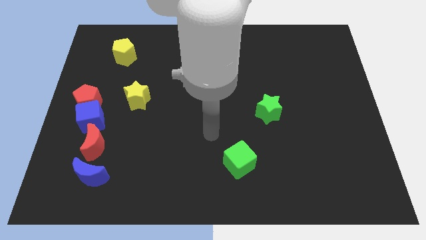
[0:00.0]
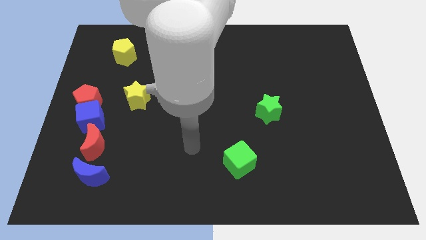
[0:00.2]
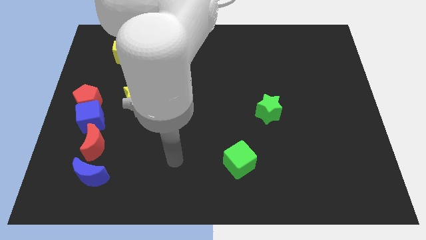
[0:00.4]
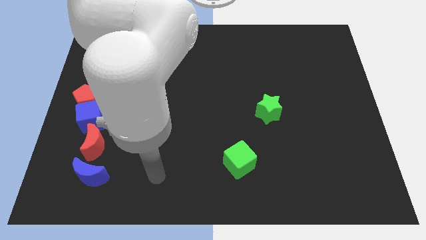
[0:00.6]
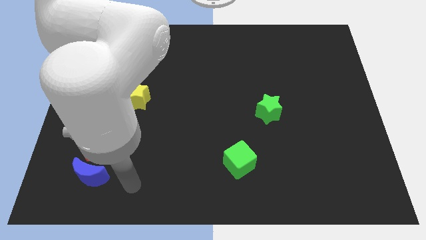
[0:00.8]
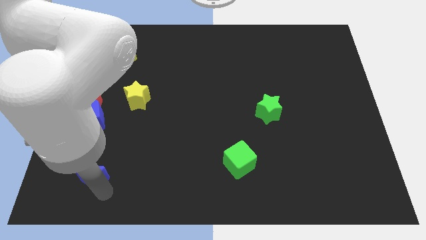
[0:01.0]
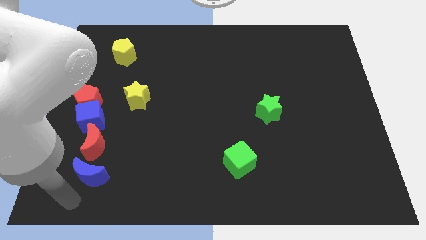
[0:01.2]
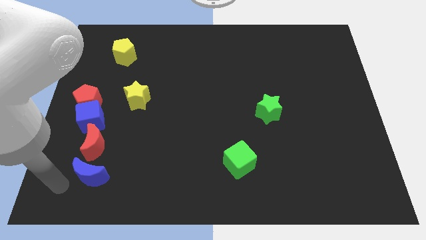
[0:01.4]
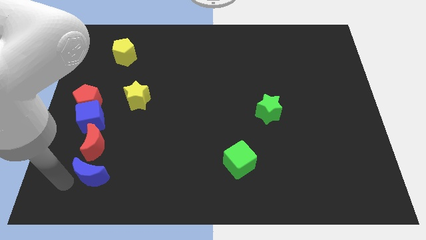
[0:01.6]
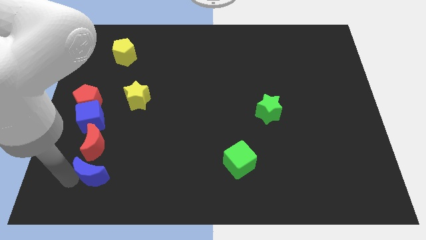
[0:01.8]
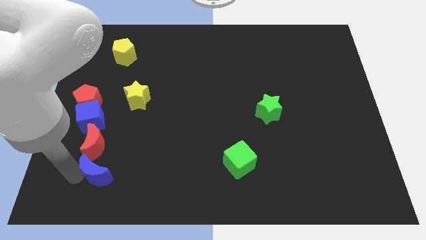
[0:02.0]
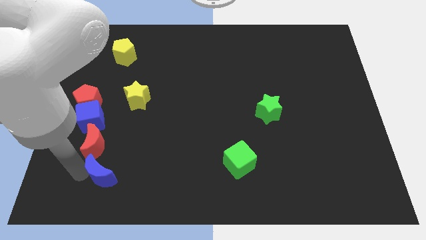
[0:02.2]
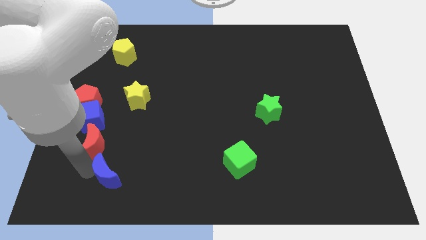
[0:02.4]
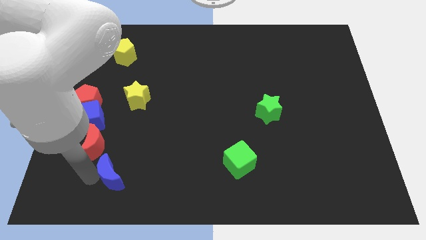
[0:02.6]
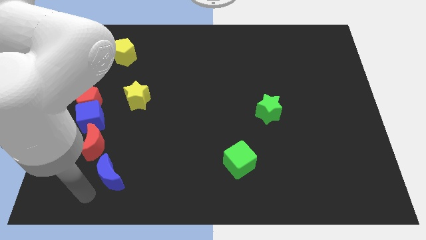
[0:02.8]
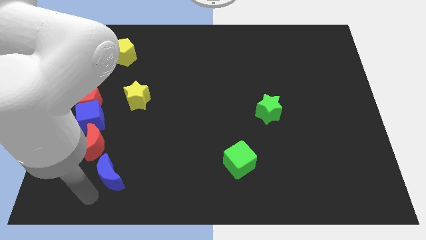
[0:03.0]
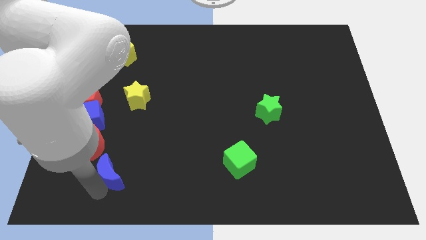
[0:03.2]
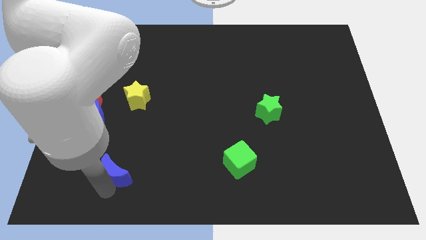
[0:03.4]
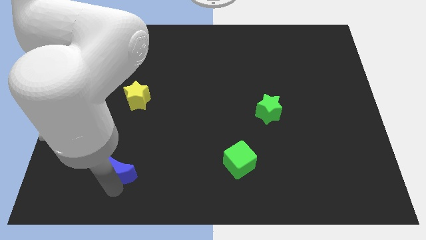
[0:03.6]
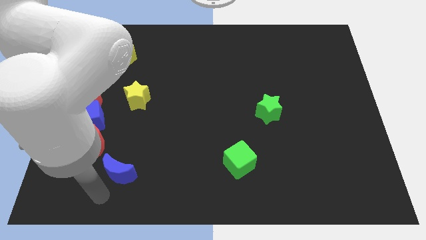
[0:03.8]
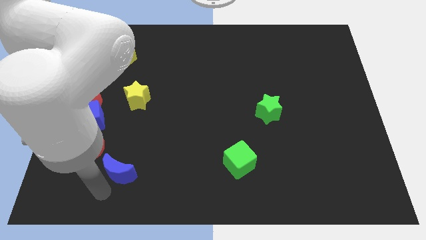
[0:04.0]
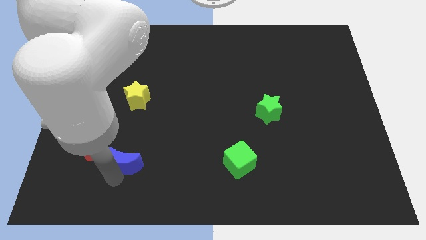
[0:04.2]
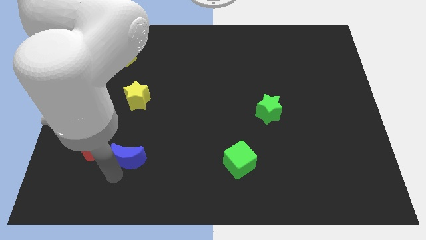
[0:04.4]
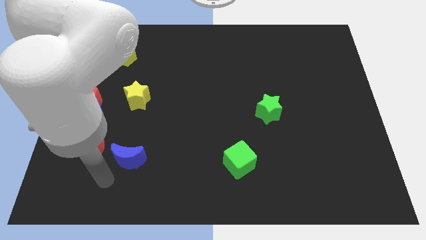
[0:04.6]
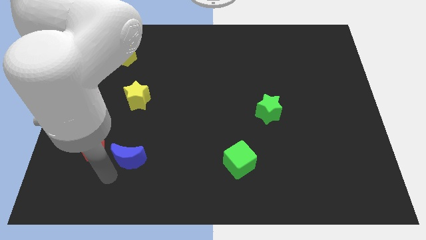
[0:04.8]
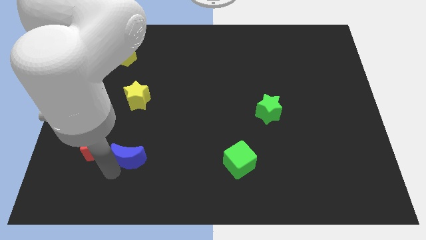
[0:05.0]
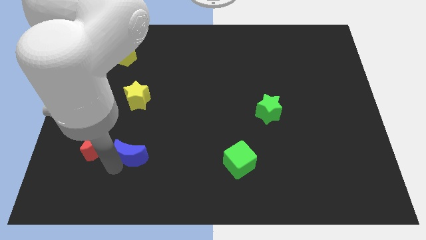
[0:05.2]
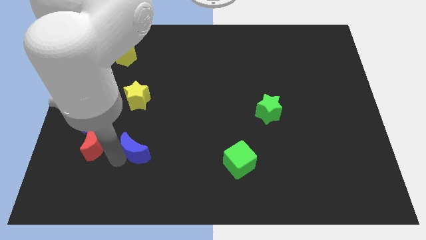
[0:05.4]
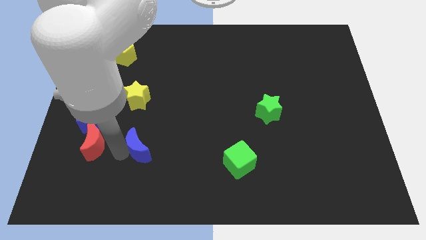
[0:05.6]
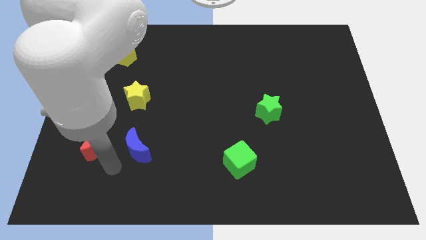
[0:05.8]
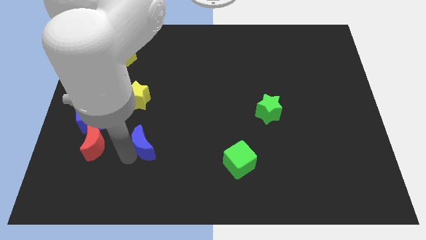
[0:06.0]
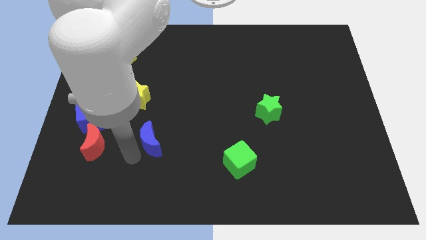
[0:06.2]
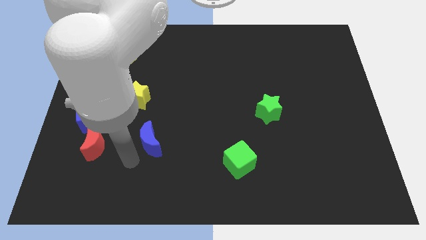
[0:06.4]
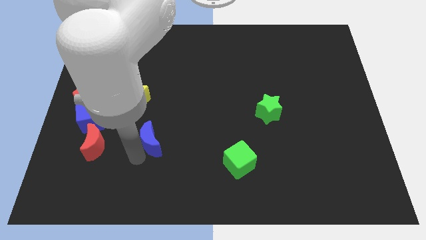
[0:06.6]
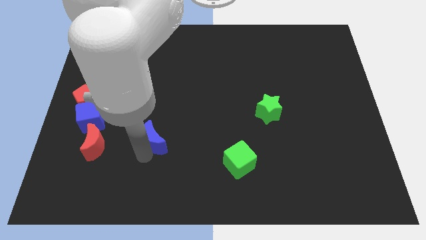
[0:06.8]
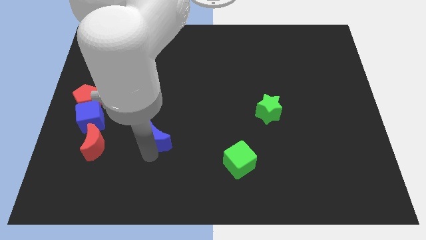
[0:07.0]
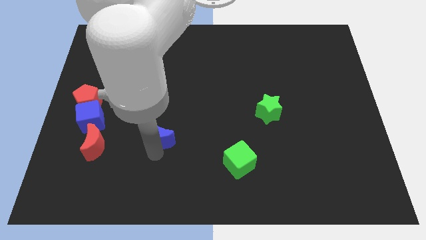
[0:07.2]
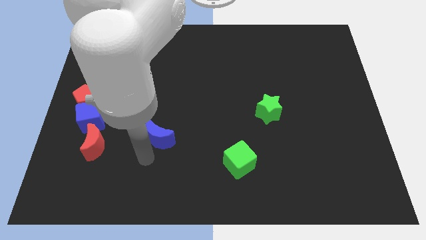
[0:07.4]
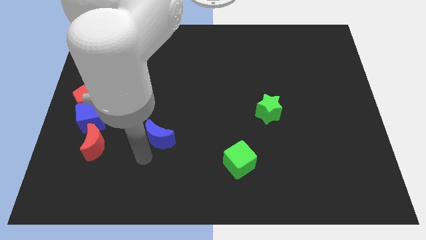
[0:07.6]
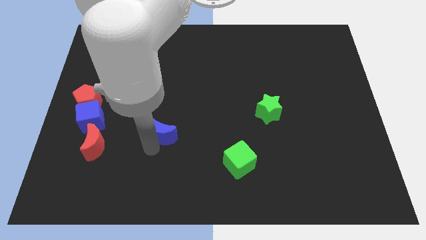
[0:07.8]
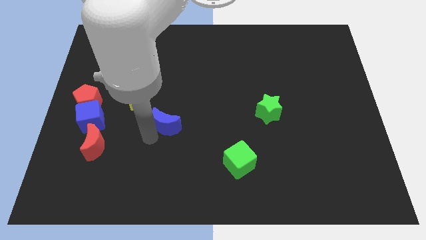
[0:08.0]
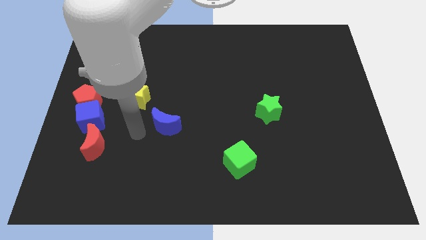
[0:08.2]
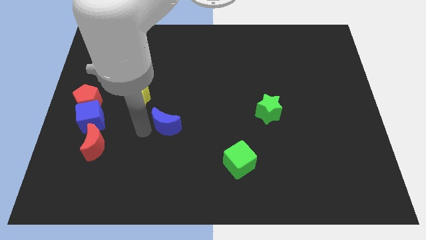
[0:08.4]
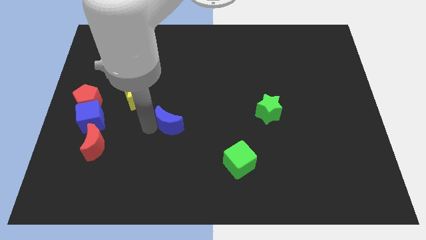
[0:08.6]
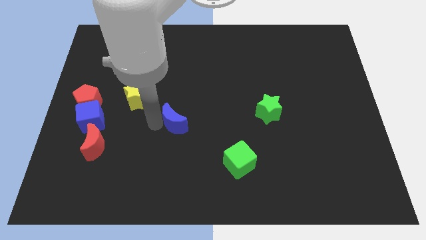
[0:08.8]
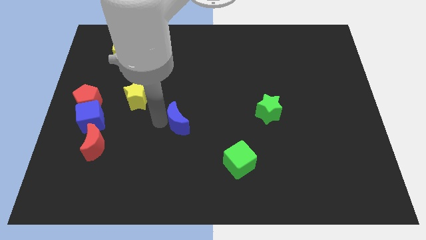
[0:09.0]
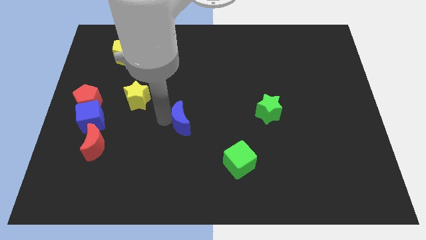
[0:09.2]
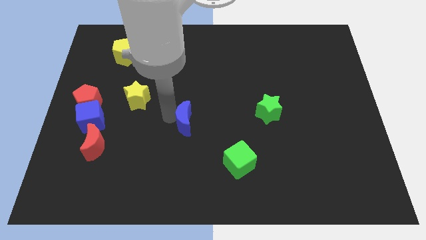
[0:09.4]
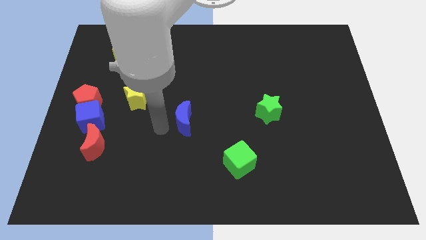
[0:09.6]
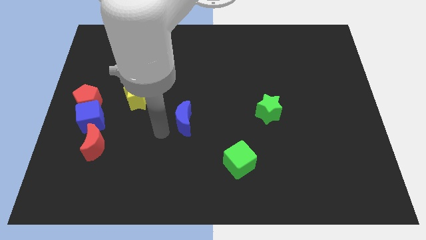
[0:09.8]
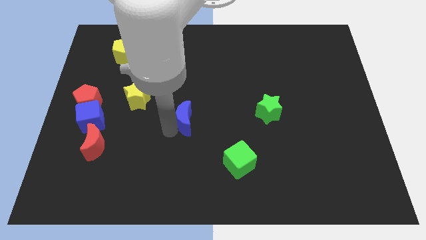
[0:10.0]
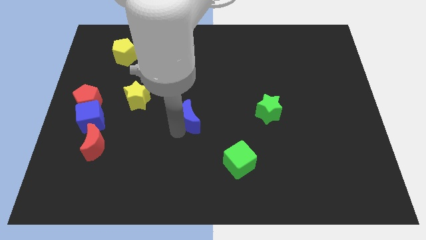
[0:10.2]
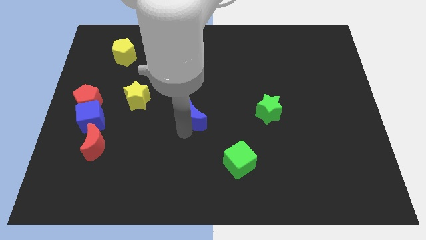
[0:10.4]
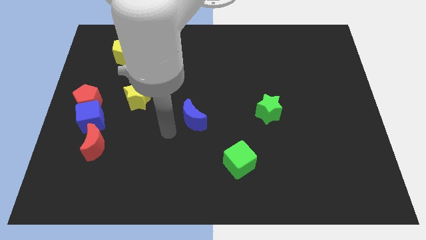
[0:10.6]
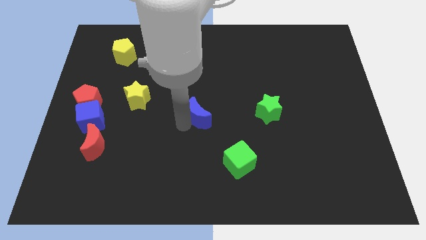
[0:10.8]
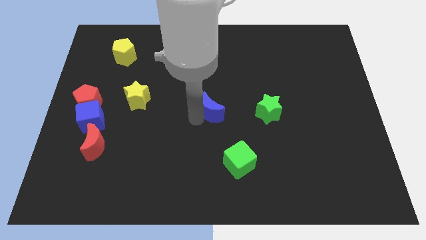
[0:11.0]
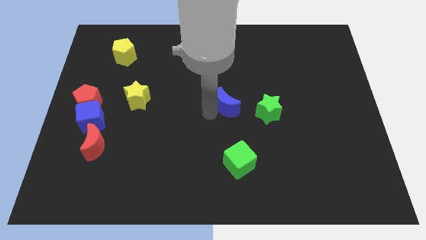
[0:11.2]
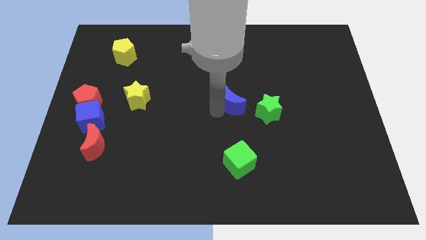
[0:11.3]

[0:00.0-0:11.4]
move the blue moon to the top left side of the green star

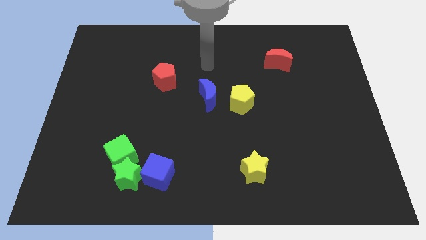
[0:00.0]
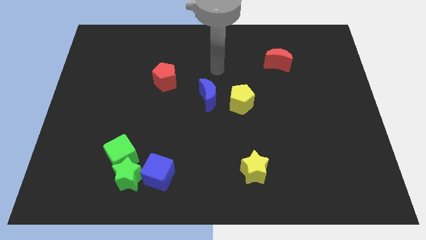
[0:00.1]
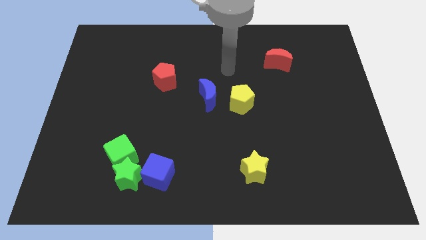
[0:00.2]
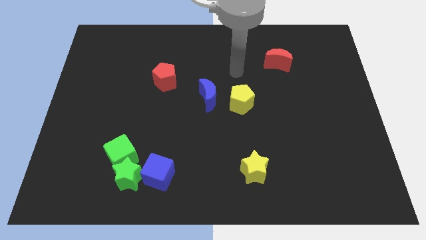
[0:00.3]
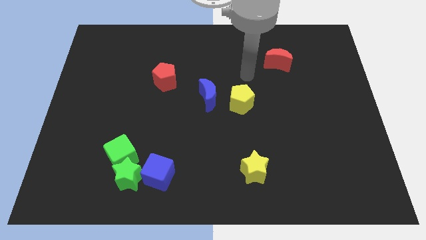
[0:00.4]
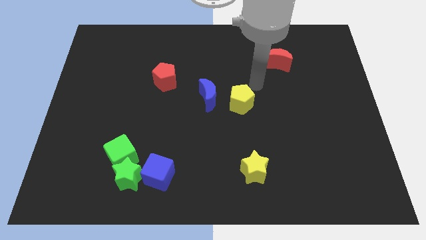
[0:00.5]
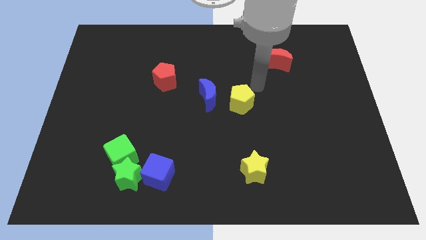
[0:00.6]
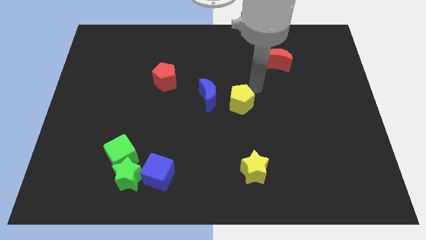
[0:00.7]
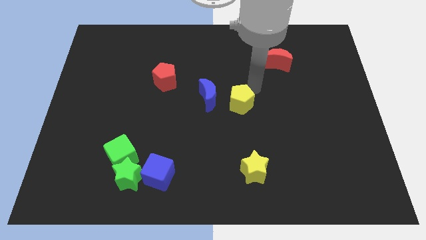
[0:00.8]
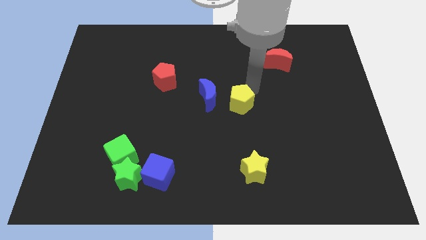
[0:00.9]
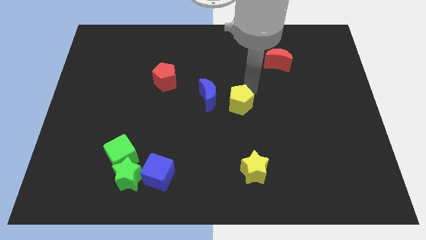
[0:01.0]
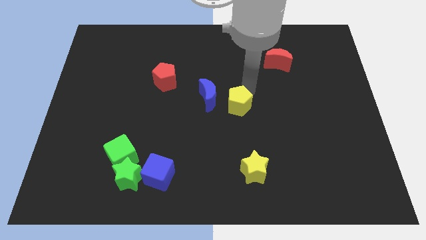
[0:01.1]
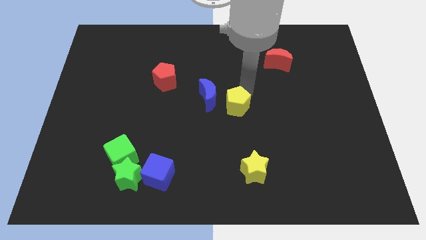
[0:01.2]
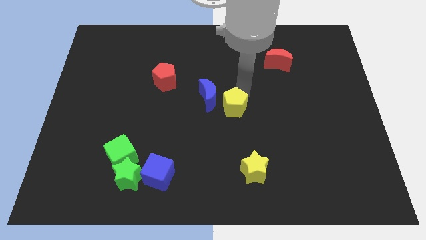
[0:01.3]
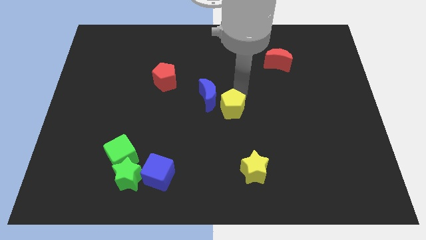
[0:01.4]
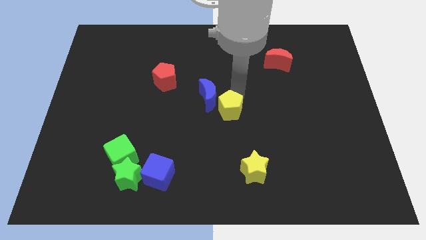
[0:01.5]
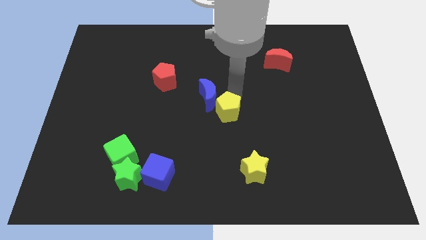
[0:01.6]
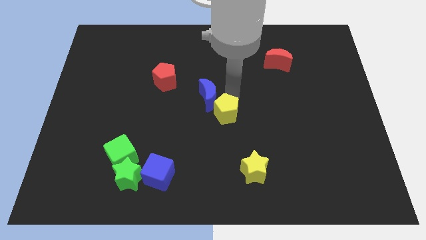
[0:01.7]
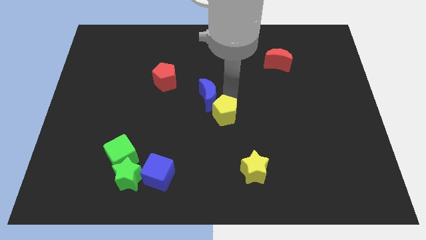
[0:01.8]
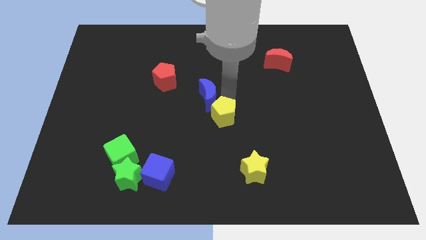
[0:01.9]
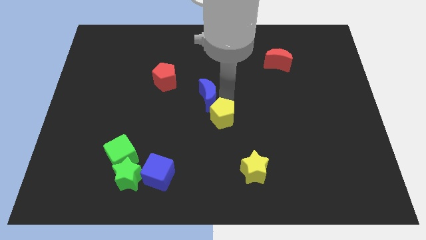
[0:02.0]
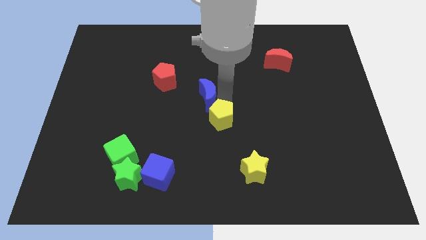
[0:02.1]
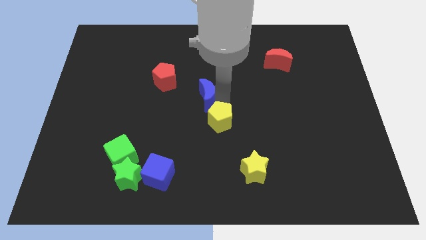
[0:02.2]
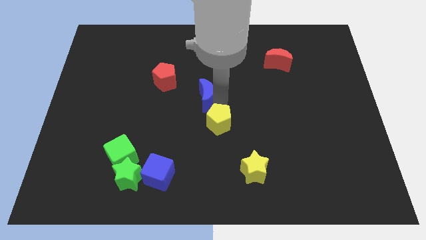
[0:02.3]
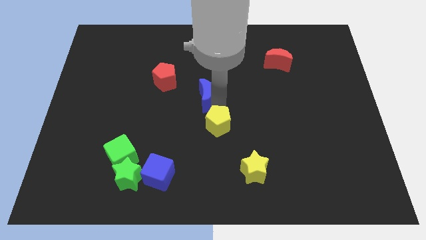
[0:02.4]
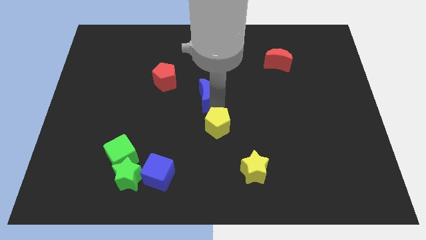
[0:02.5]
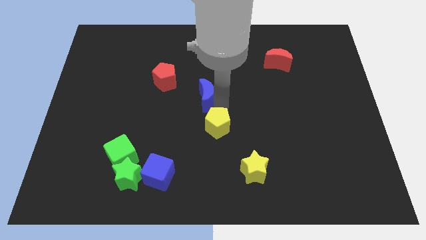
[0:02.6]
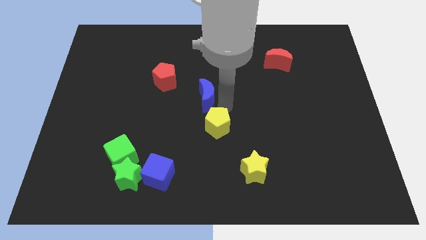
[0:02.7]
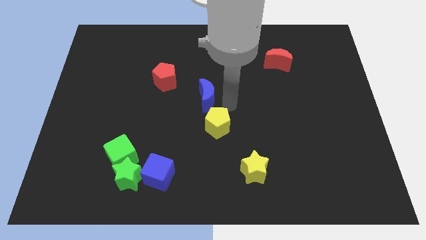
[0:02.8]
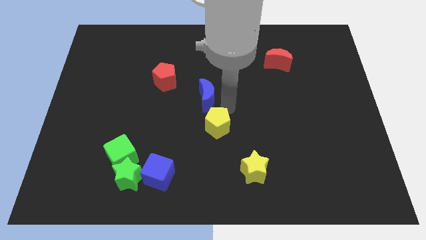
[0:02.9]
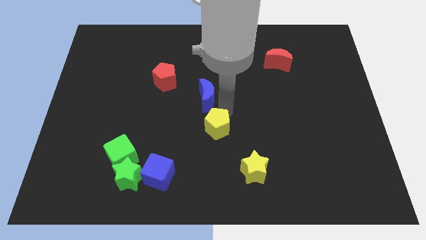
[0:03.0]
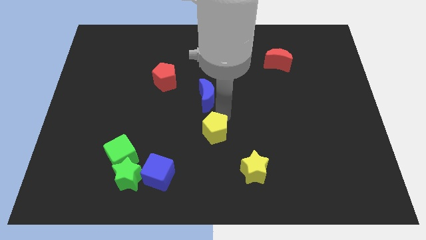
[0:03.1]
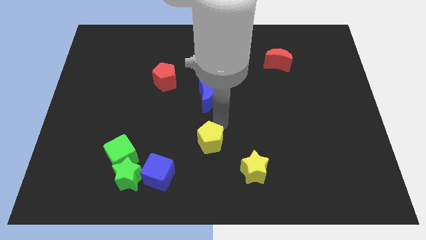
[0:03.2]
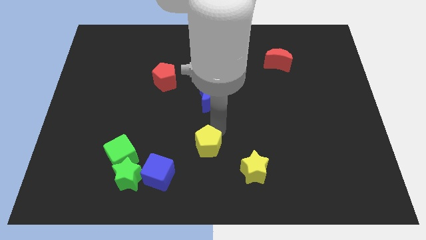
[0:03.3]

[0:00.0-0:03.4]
move the yellow pentagon to the top right side of the blue cube
